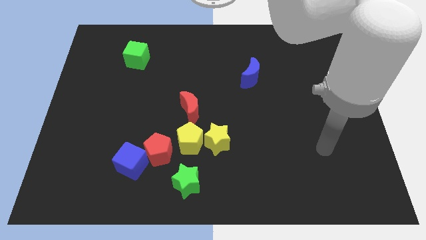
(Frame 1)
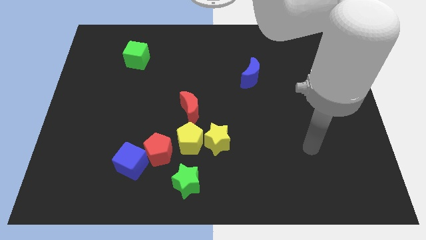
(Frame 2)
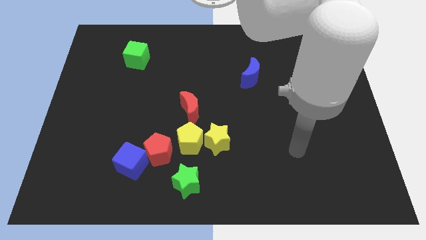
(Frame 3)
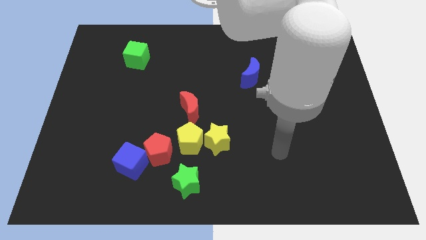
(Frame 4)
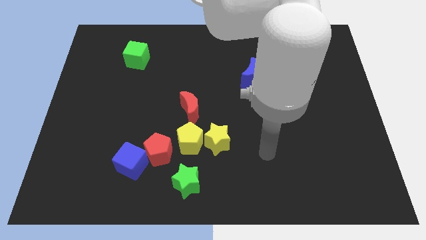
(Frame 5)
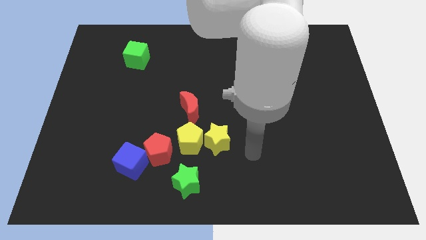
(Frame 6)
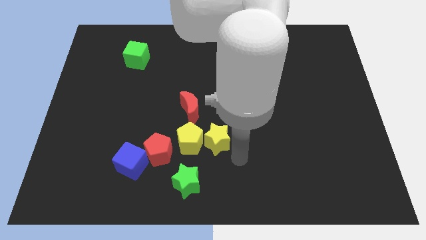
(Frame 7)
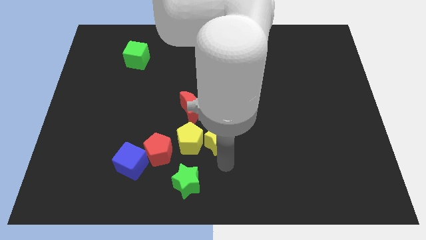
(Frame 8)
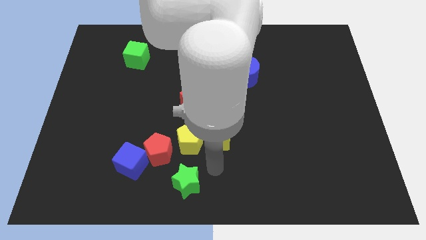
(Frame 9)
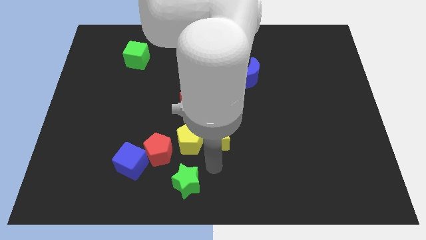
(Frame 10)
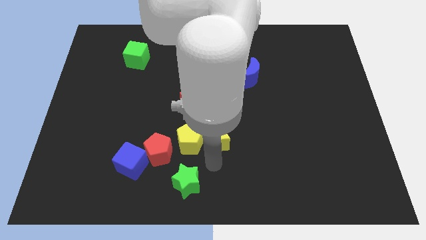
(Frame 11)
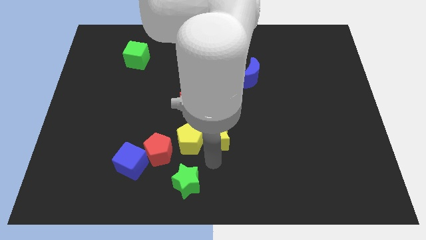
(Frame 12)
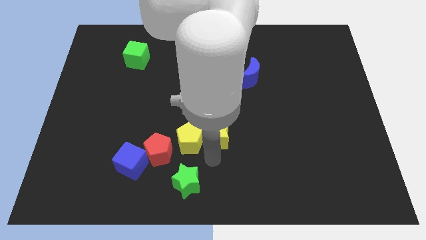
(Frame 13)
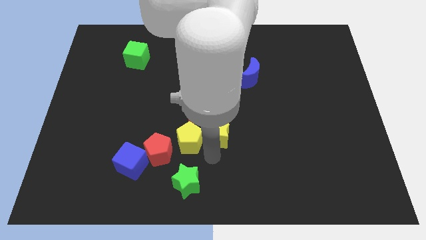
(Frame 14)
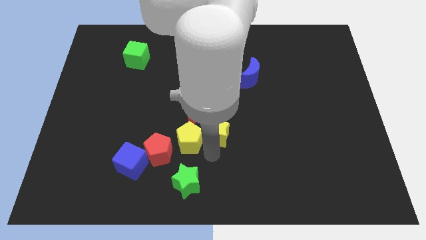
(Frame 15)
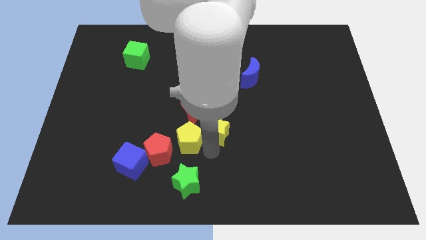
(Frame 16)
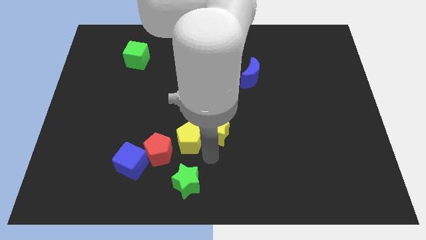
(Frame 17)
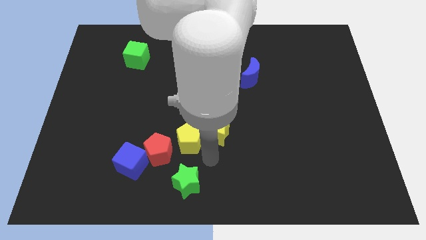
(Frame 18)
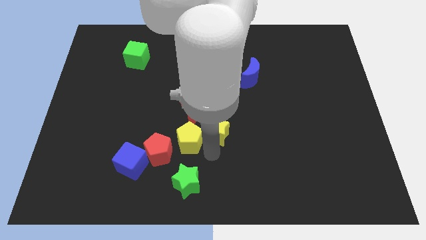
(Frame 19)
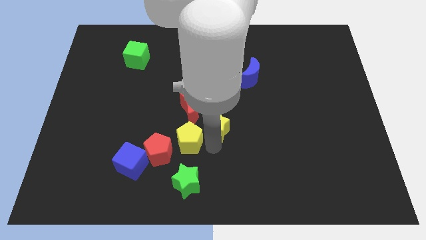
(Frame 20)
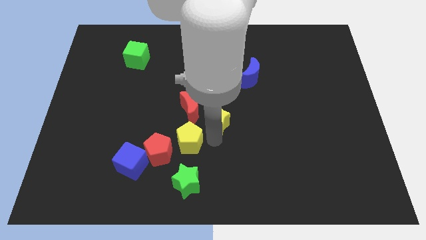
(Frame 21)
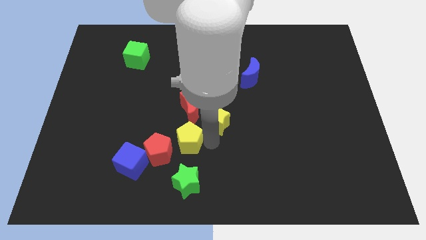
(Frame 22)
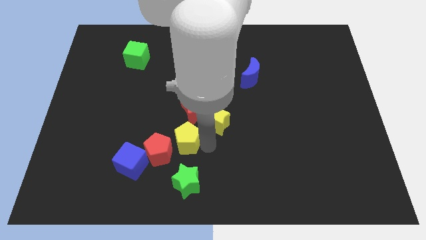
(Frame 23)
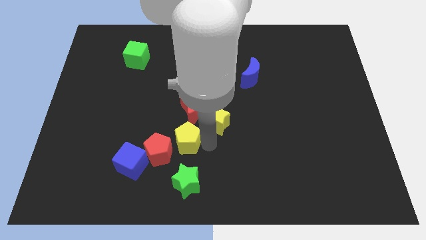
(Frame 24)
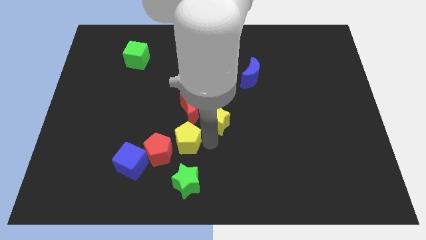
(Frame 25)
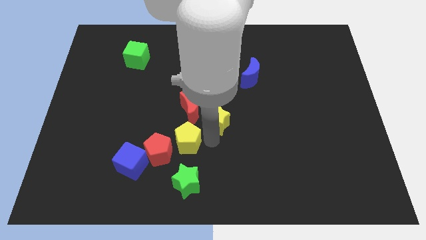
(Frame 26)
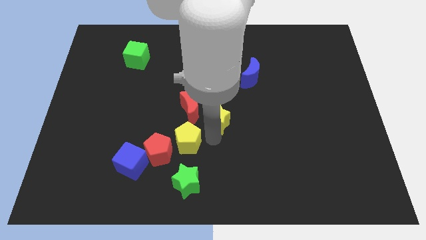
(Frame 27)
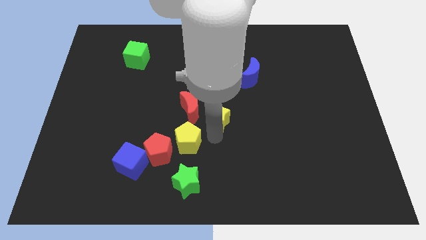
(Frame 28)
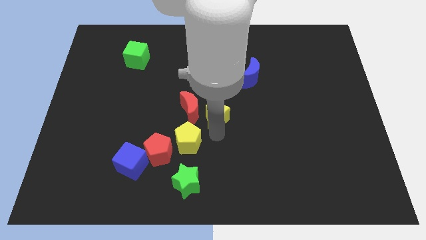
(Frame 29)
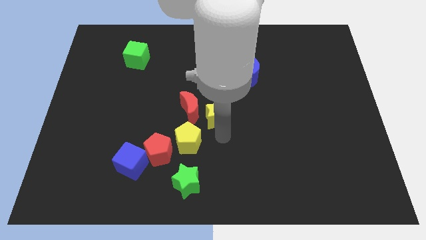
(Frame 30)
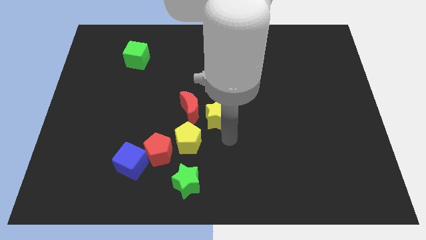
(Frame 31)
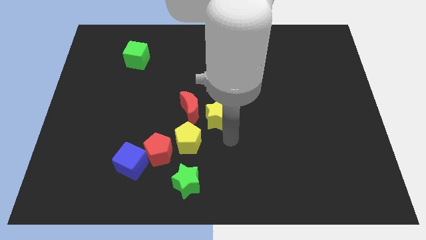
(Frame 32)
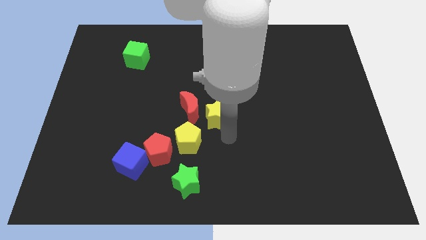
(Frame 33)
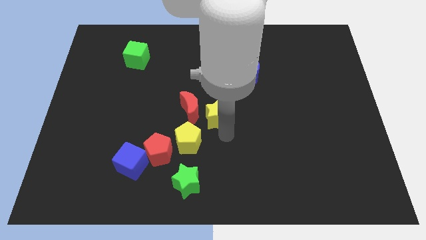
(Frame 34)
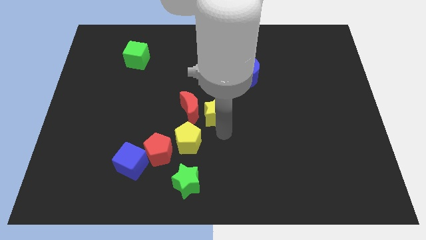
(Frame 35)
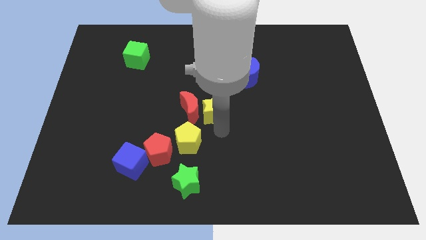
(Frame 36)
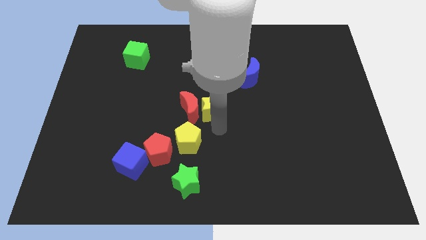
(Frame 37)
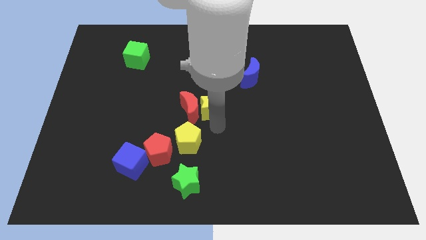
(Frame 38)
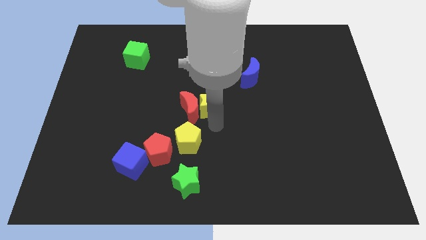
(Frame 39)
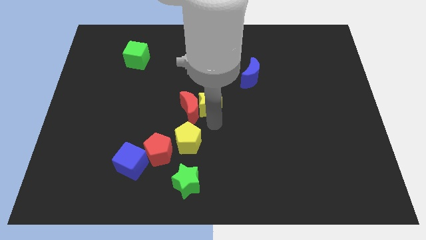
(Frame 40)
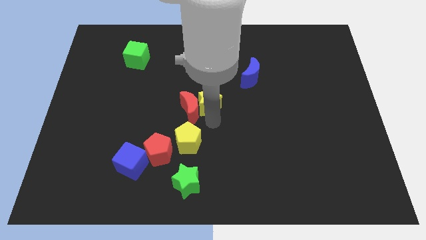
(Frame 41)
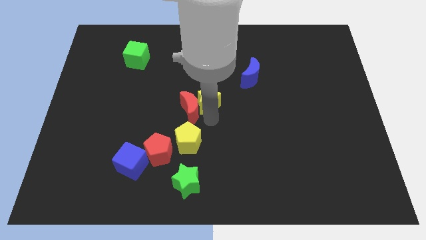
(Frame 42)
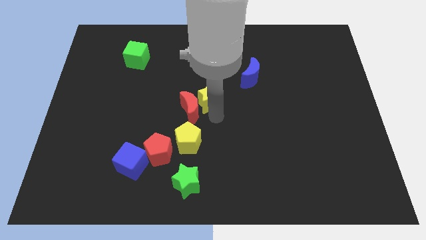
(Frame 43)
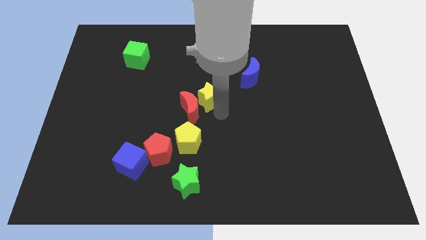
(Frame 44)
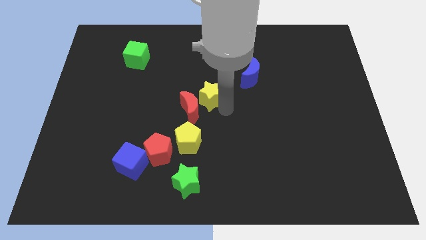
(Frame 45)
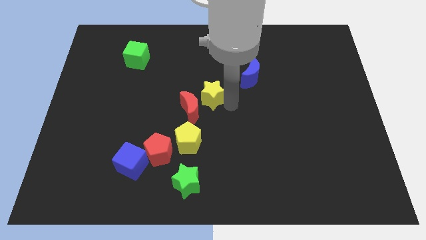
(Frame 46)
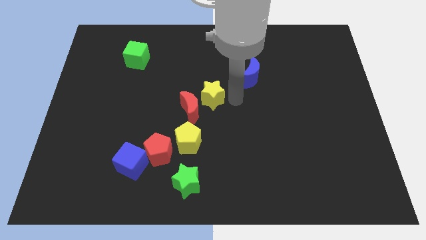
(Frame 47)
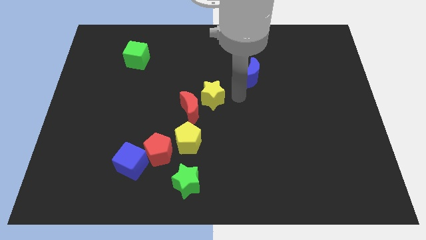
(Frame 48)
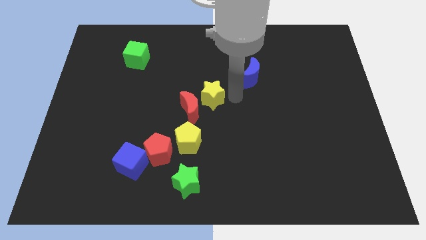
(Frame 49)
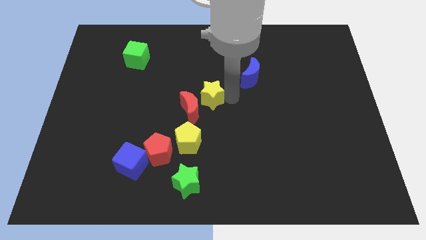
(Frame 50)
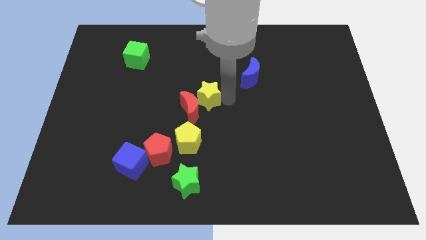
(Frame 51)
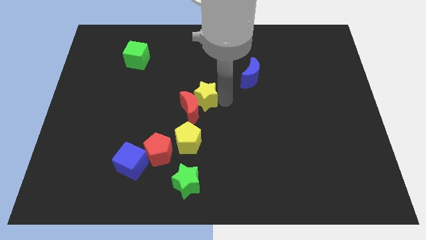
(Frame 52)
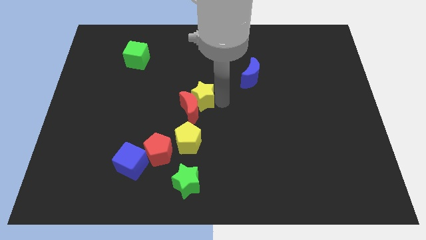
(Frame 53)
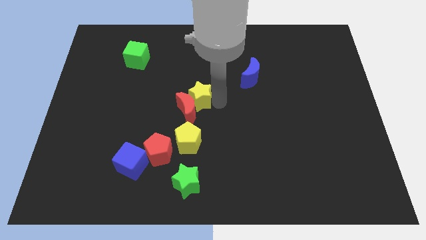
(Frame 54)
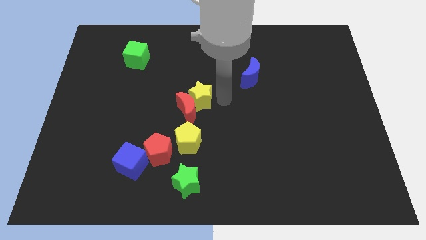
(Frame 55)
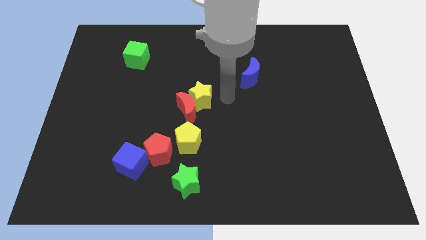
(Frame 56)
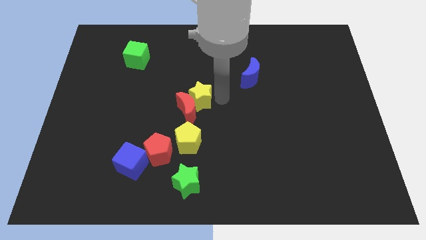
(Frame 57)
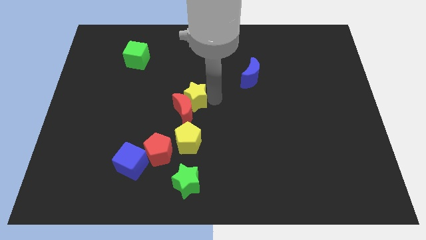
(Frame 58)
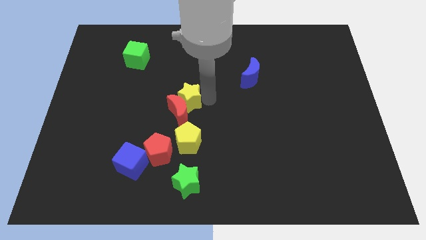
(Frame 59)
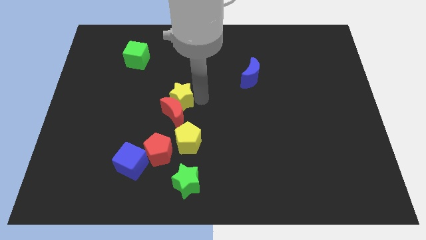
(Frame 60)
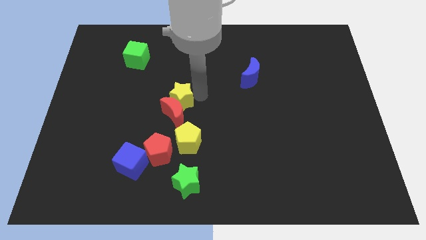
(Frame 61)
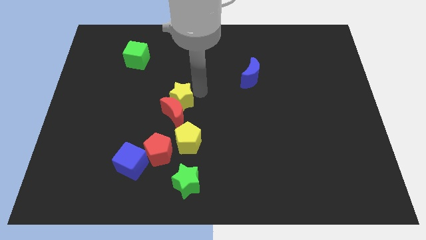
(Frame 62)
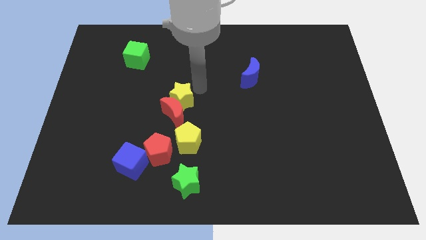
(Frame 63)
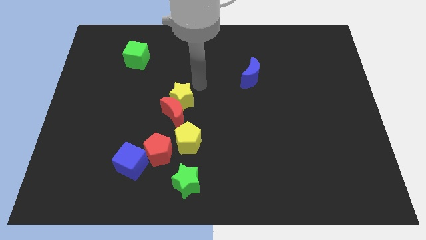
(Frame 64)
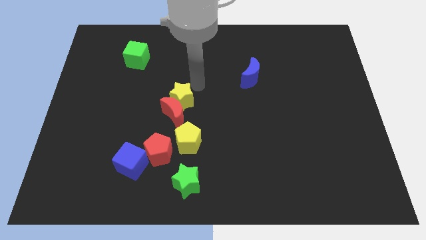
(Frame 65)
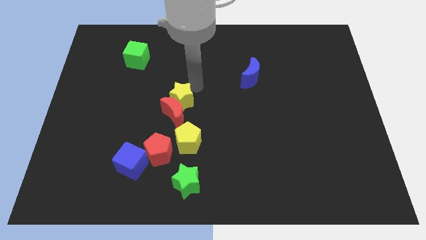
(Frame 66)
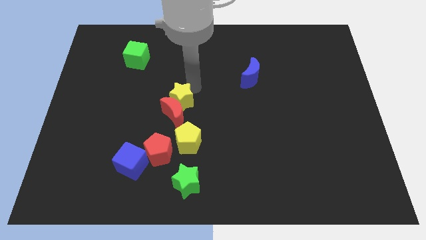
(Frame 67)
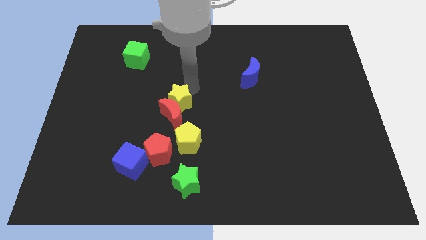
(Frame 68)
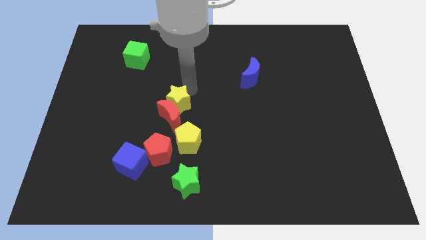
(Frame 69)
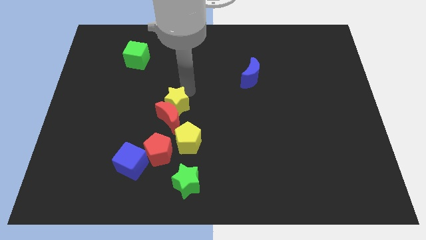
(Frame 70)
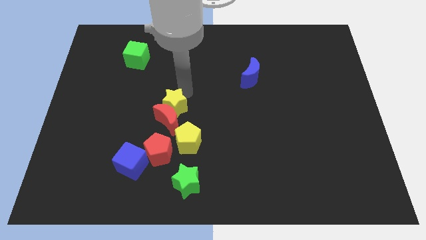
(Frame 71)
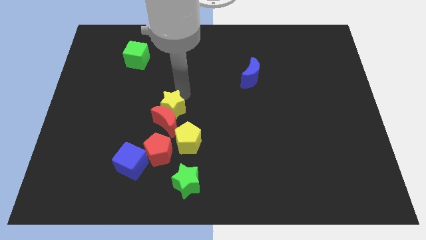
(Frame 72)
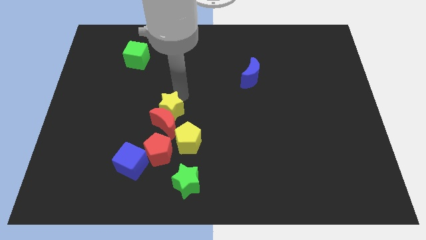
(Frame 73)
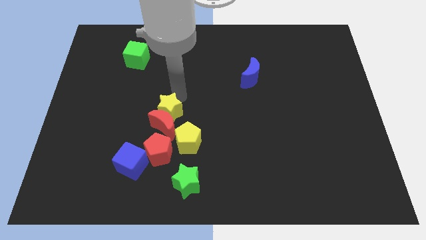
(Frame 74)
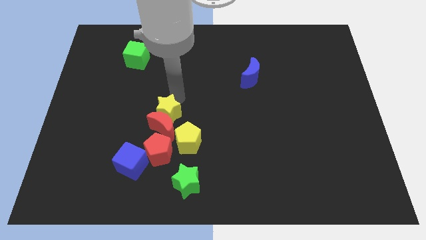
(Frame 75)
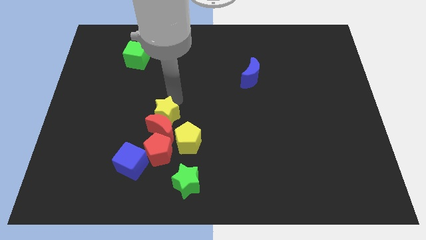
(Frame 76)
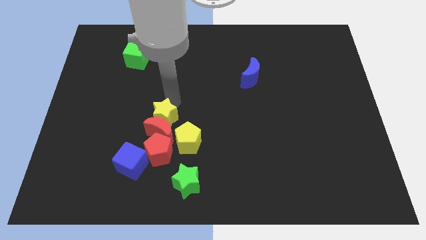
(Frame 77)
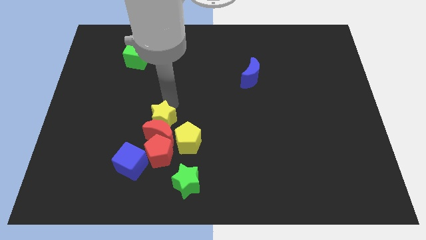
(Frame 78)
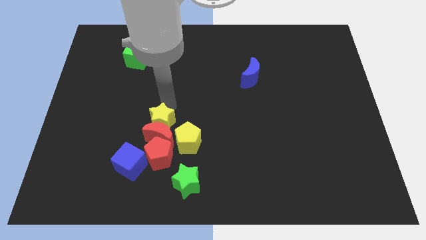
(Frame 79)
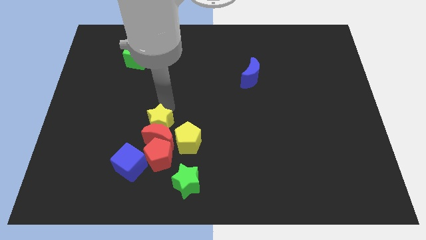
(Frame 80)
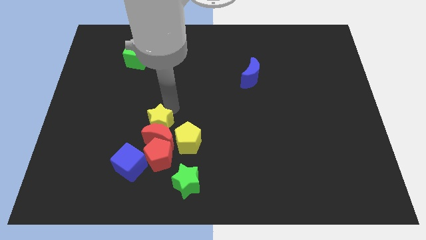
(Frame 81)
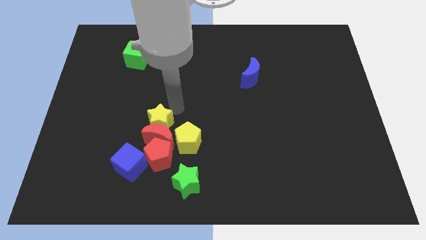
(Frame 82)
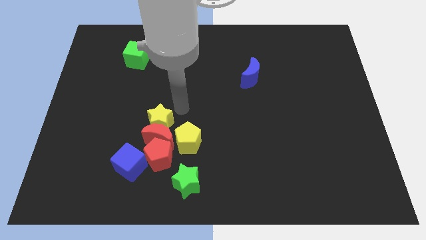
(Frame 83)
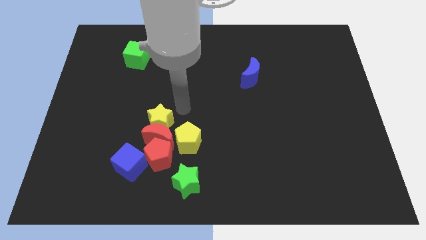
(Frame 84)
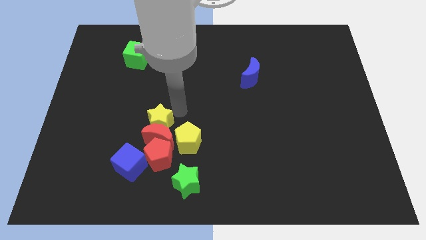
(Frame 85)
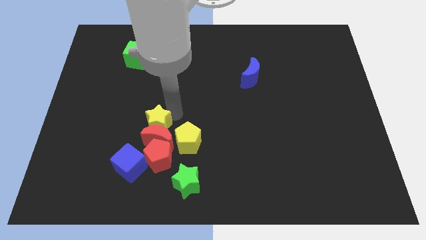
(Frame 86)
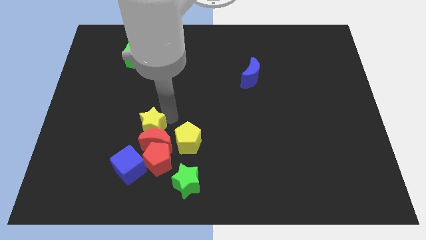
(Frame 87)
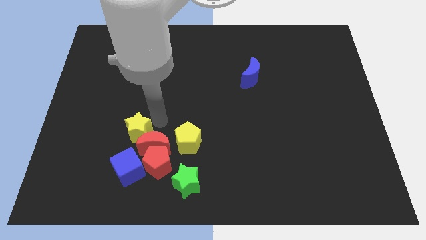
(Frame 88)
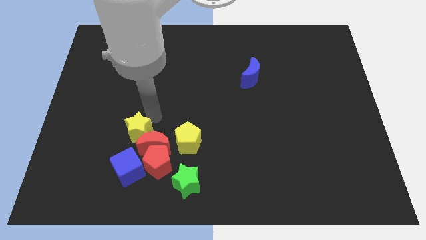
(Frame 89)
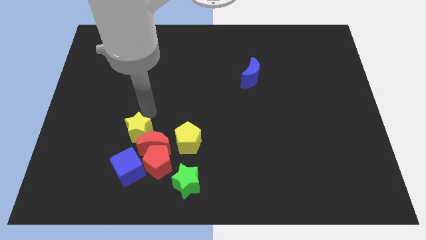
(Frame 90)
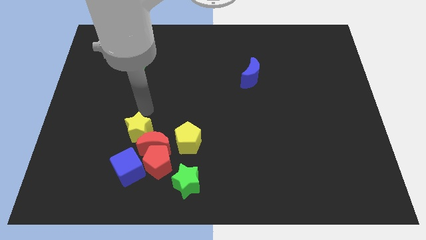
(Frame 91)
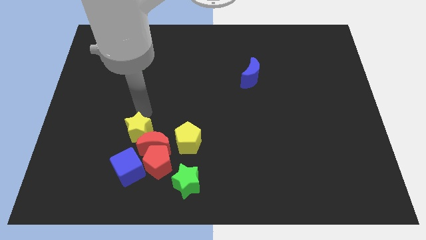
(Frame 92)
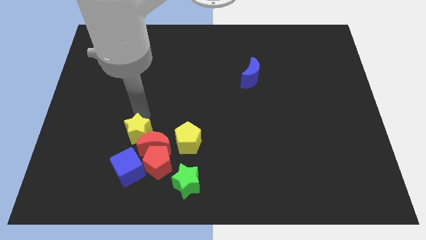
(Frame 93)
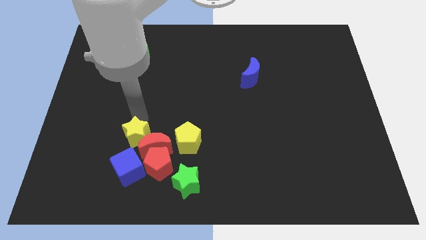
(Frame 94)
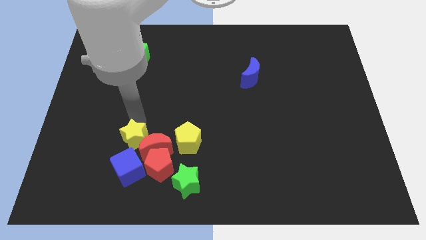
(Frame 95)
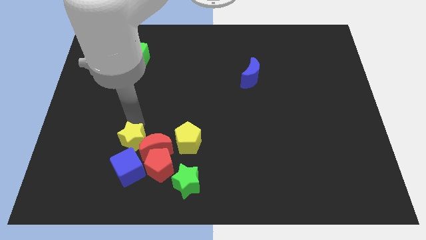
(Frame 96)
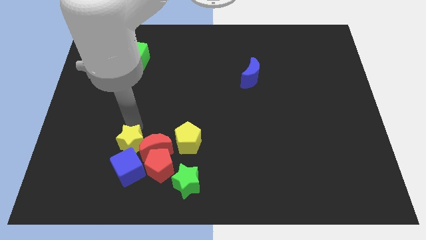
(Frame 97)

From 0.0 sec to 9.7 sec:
move the yellow star to the blue cube
